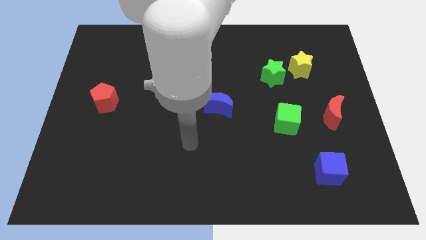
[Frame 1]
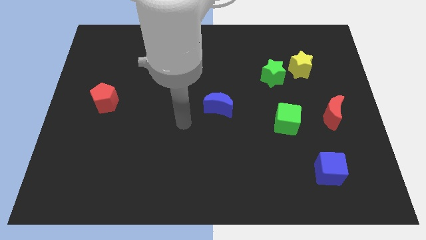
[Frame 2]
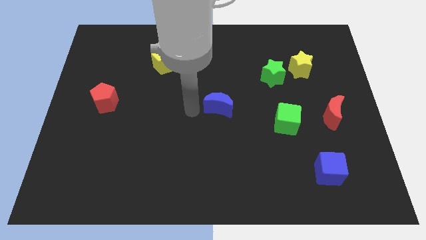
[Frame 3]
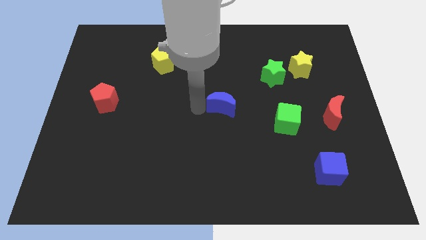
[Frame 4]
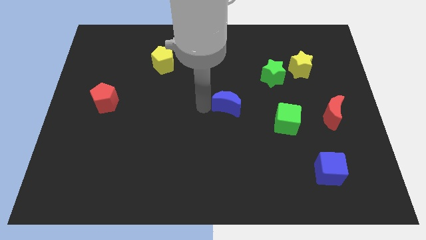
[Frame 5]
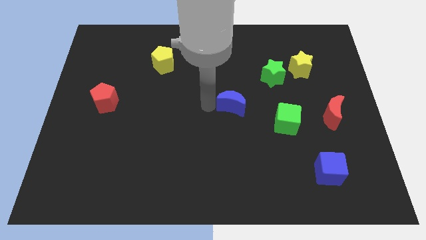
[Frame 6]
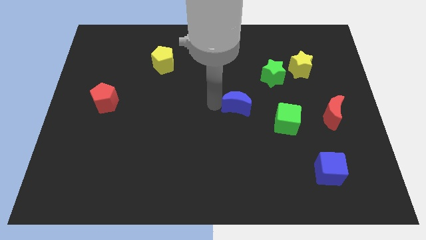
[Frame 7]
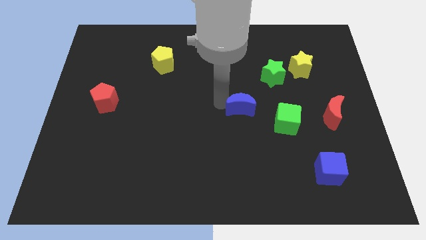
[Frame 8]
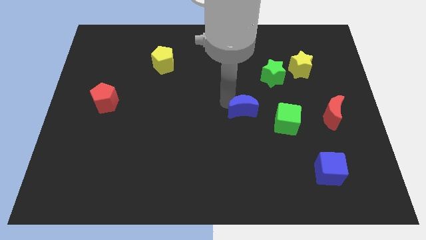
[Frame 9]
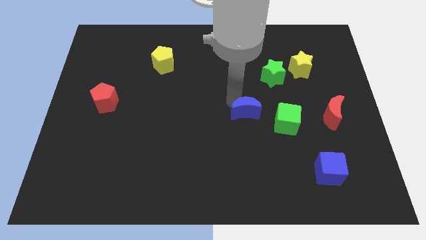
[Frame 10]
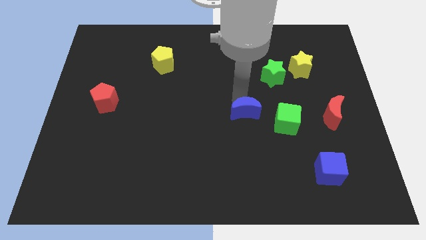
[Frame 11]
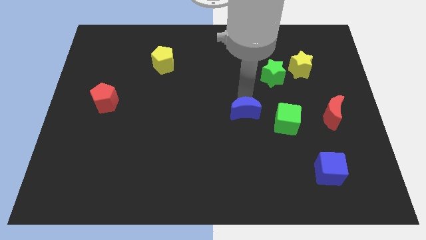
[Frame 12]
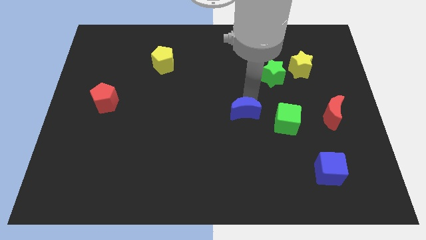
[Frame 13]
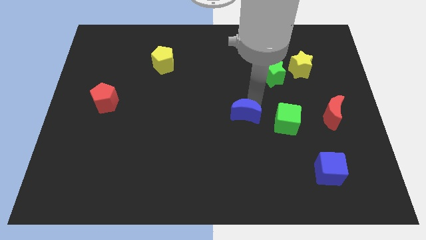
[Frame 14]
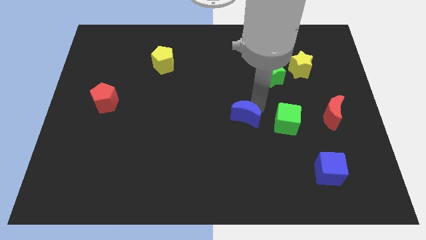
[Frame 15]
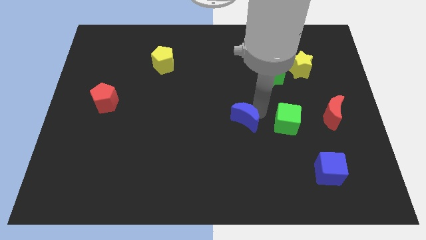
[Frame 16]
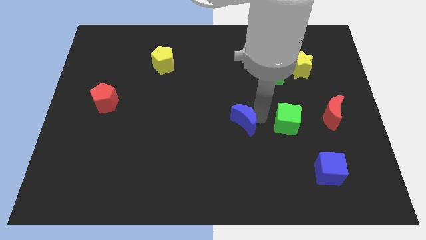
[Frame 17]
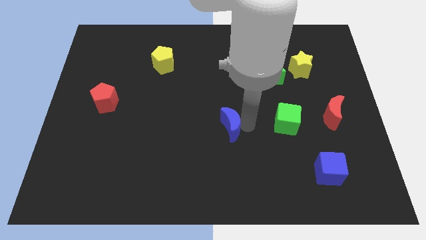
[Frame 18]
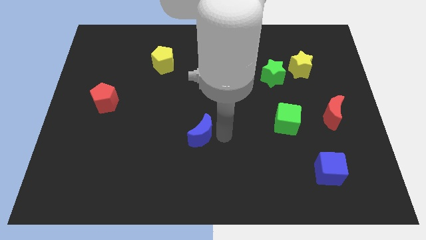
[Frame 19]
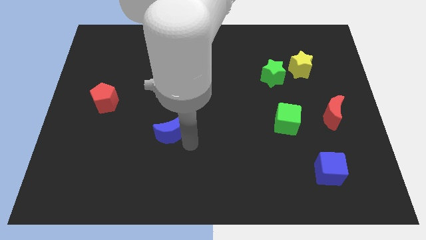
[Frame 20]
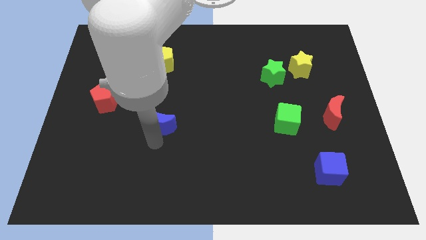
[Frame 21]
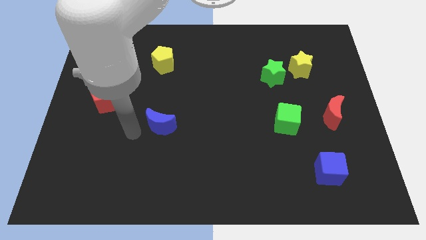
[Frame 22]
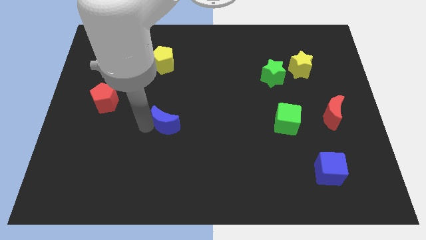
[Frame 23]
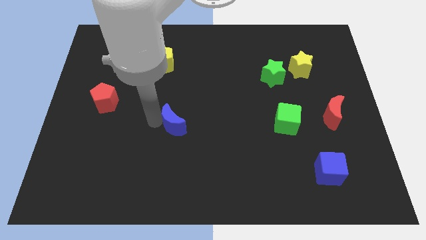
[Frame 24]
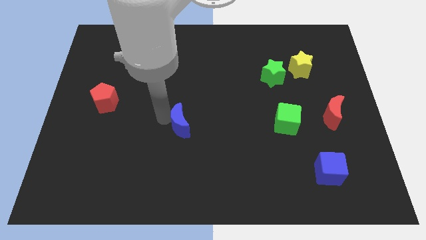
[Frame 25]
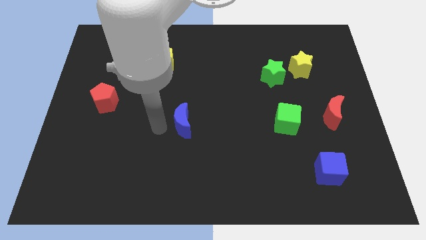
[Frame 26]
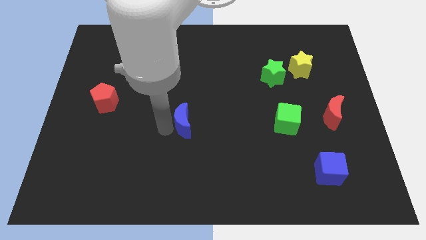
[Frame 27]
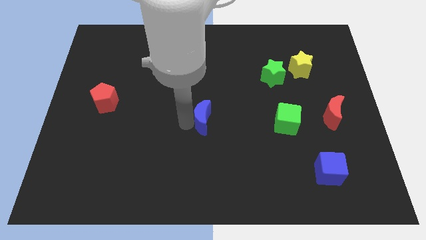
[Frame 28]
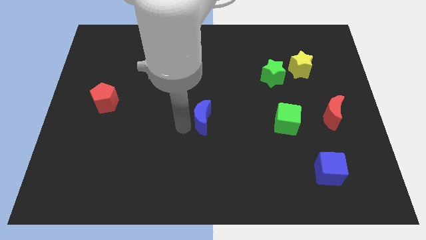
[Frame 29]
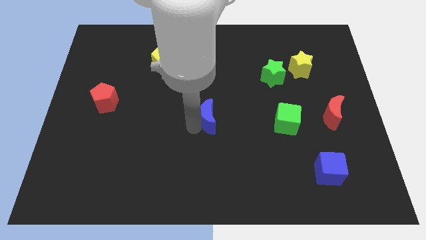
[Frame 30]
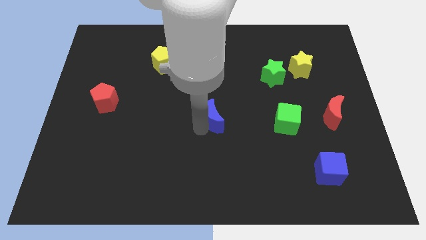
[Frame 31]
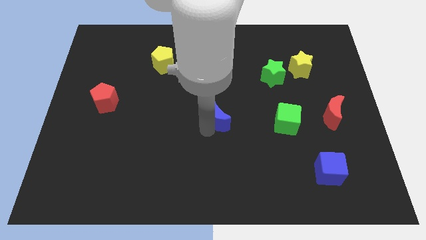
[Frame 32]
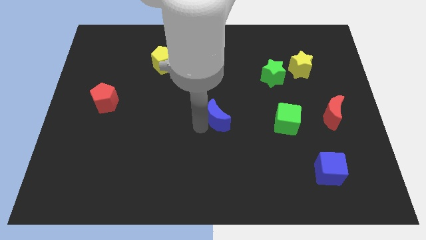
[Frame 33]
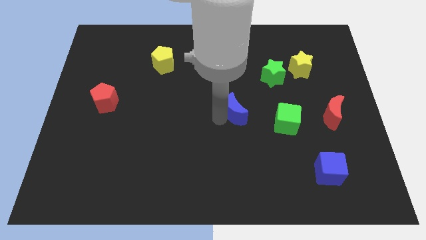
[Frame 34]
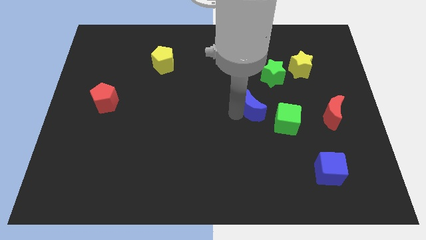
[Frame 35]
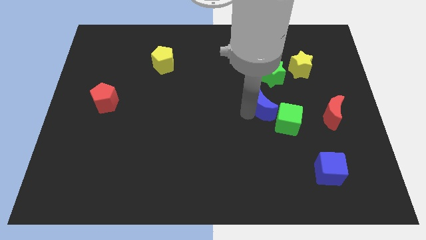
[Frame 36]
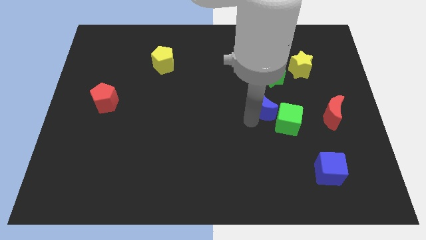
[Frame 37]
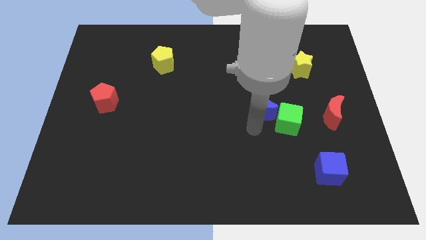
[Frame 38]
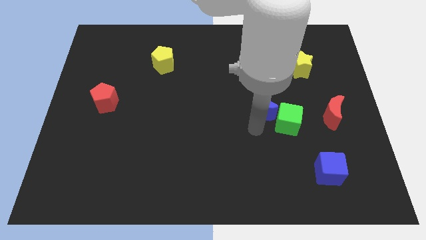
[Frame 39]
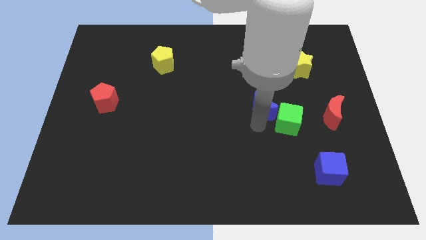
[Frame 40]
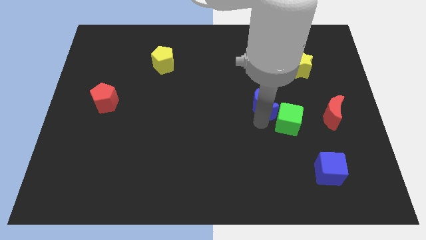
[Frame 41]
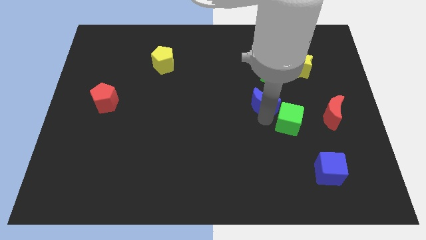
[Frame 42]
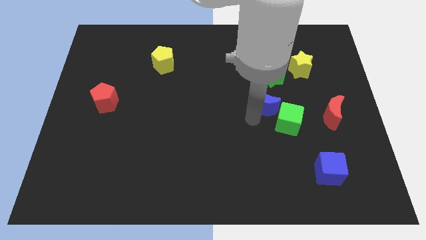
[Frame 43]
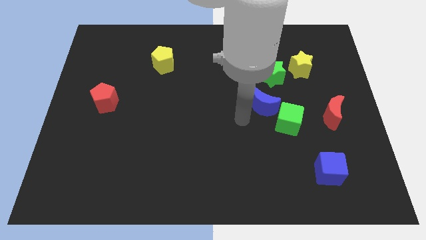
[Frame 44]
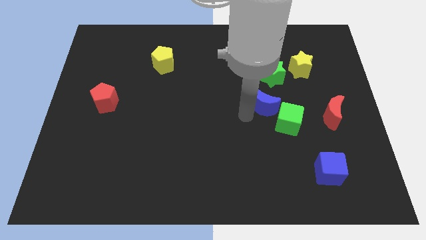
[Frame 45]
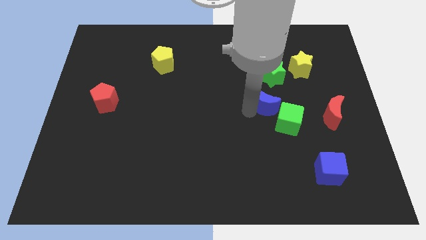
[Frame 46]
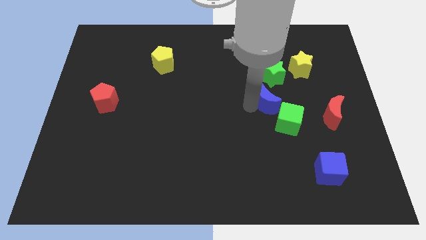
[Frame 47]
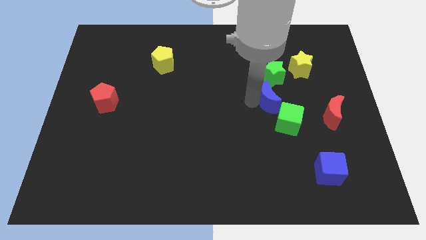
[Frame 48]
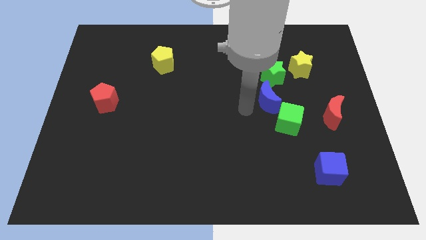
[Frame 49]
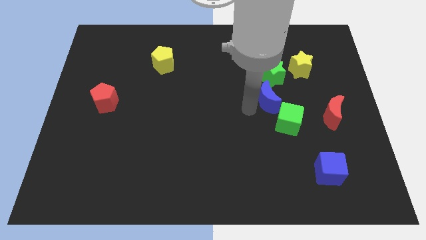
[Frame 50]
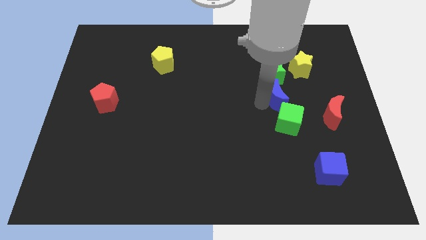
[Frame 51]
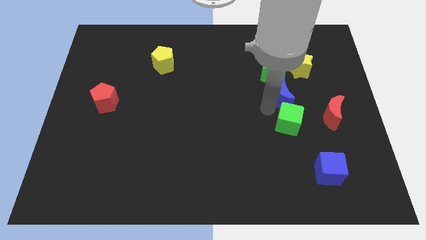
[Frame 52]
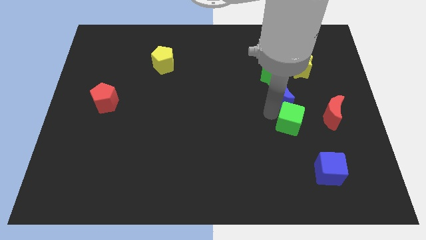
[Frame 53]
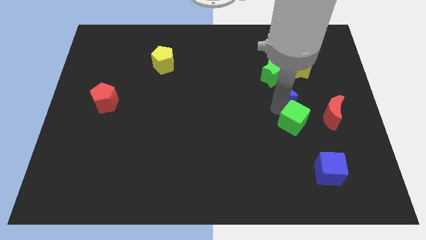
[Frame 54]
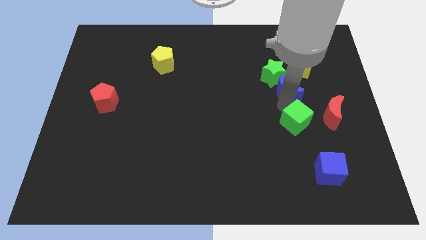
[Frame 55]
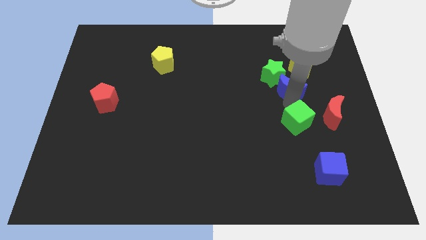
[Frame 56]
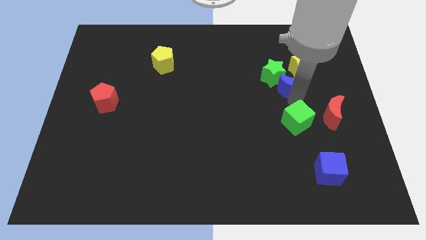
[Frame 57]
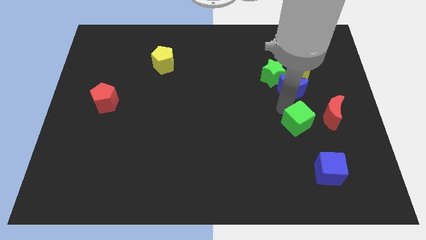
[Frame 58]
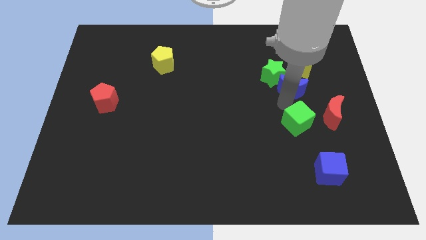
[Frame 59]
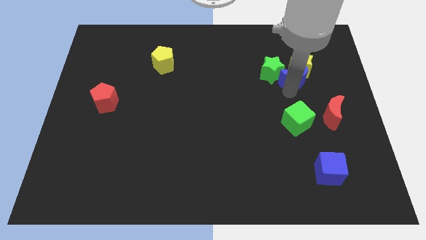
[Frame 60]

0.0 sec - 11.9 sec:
slide the blue moon close to the yellow star

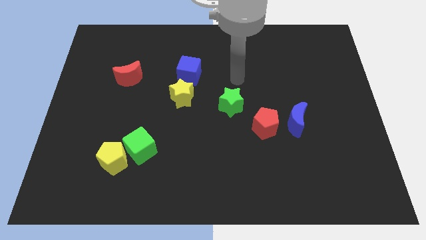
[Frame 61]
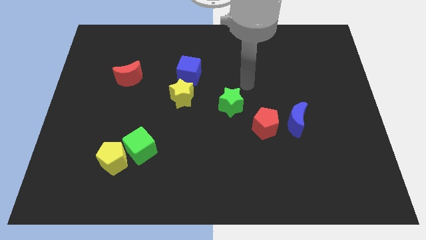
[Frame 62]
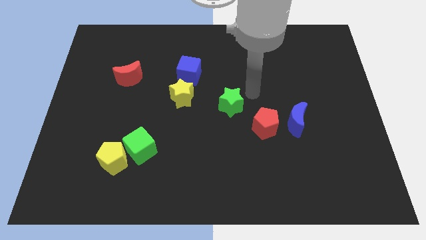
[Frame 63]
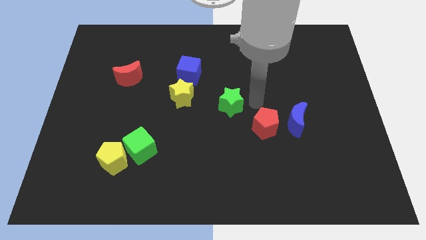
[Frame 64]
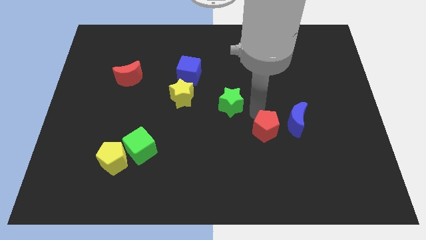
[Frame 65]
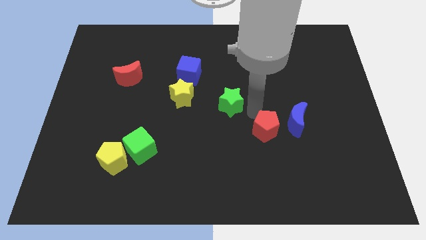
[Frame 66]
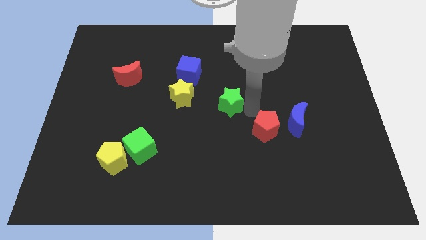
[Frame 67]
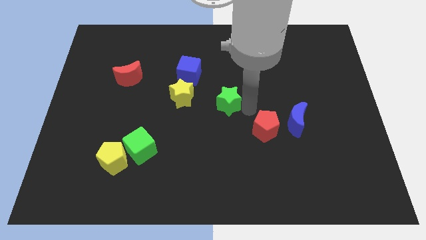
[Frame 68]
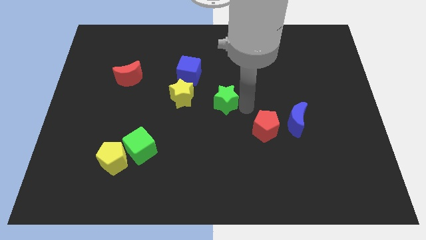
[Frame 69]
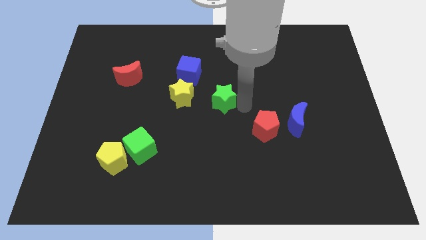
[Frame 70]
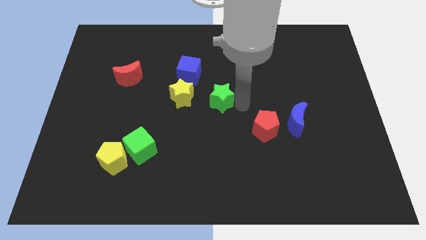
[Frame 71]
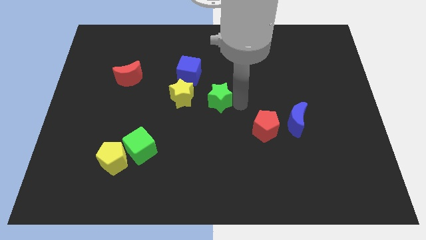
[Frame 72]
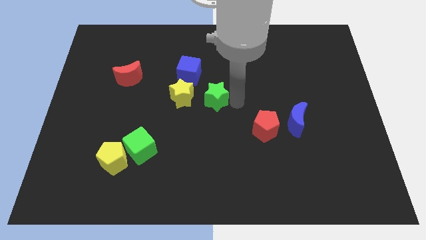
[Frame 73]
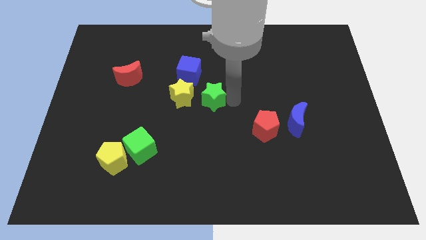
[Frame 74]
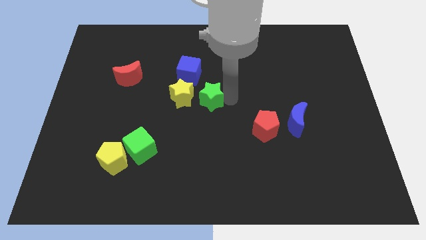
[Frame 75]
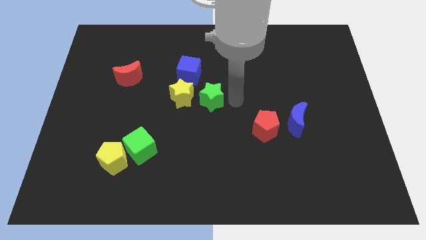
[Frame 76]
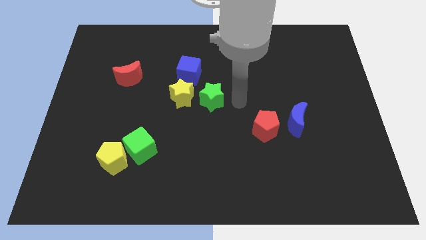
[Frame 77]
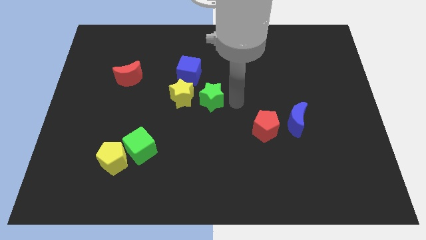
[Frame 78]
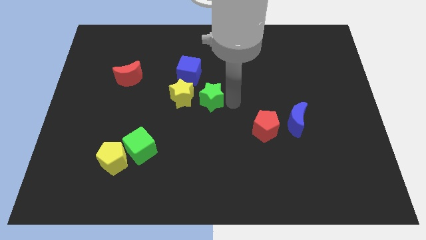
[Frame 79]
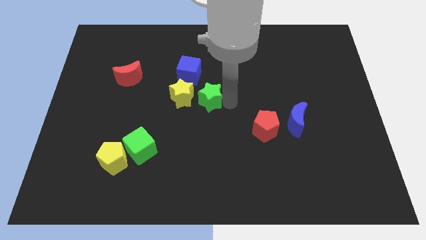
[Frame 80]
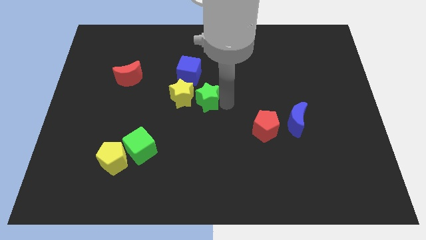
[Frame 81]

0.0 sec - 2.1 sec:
put the green star towards the yellow star
